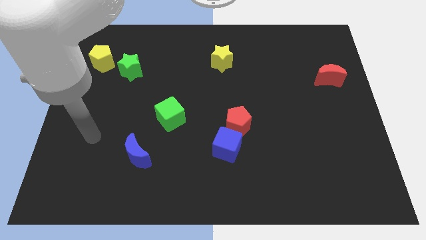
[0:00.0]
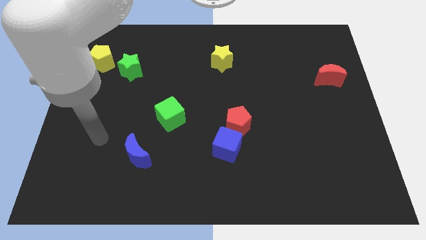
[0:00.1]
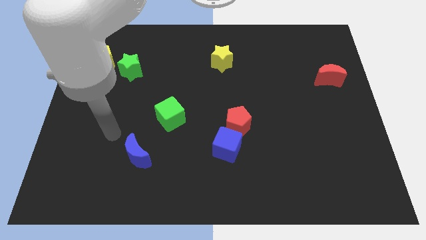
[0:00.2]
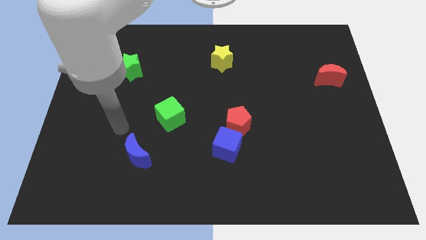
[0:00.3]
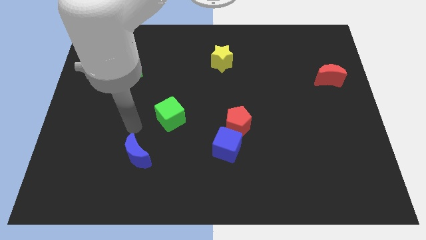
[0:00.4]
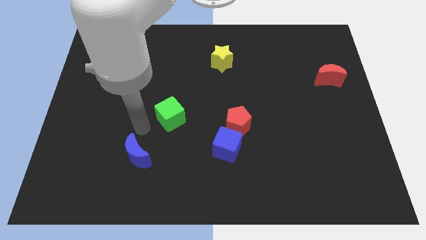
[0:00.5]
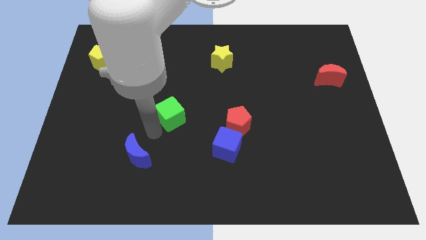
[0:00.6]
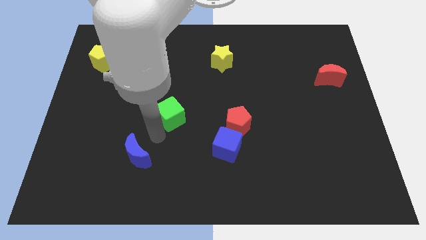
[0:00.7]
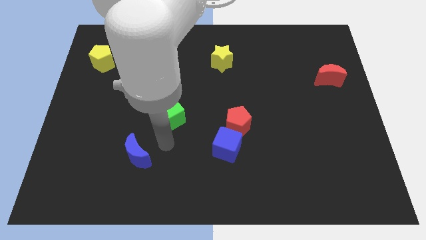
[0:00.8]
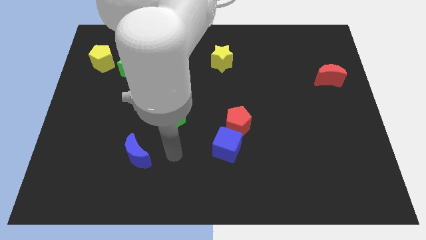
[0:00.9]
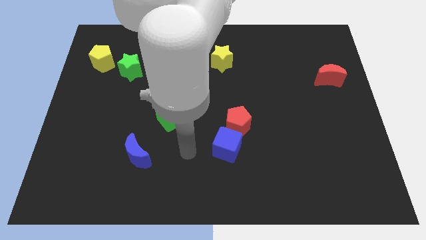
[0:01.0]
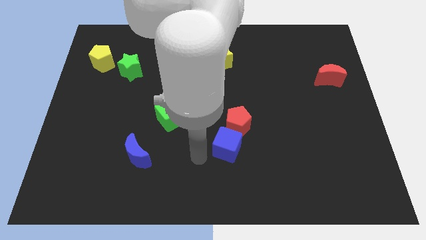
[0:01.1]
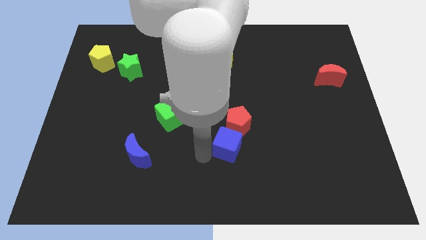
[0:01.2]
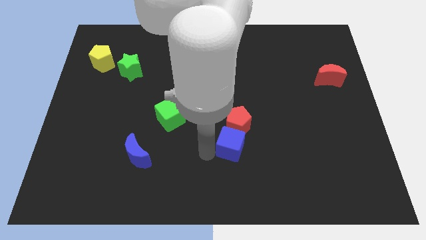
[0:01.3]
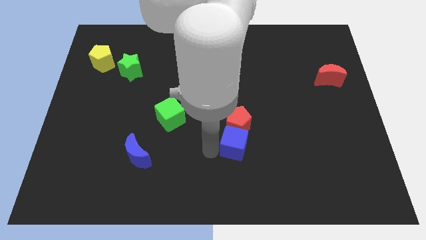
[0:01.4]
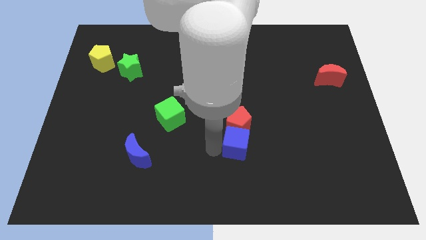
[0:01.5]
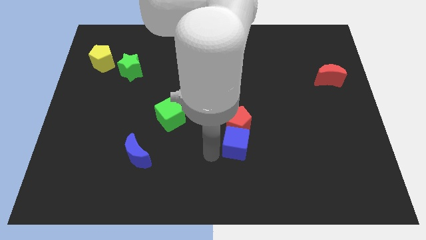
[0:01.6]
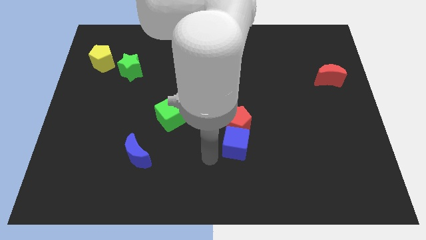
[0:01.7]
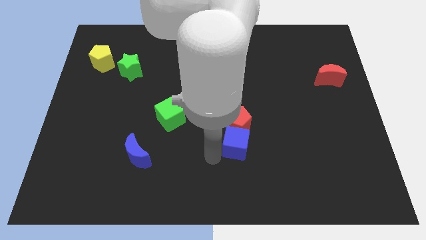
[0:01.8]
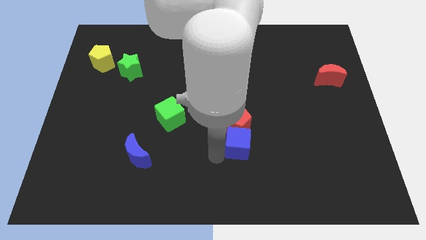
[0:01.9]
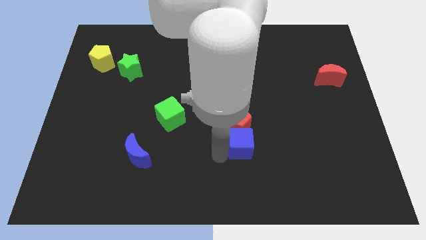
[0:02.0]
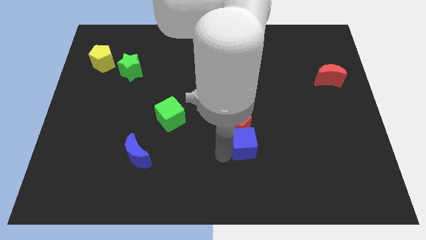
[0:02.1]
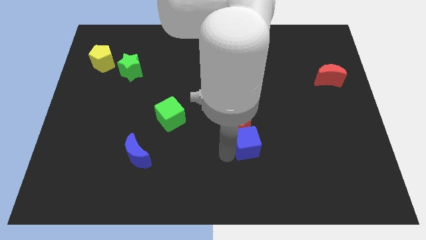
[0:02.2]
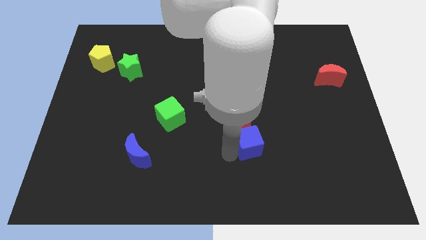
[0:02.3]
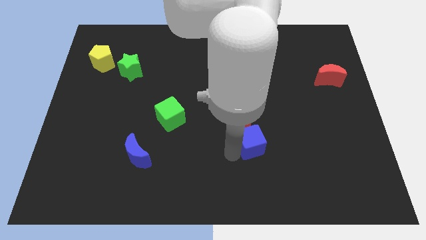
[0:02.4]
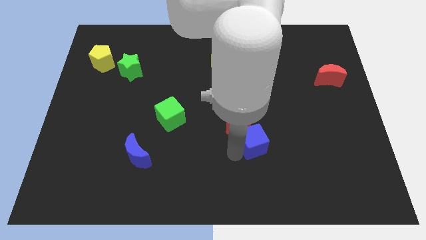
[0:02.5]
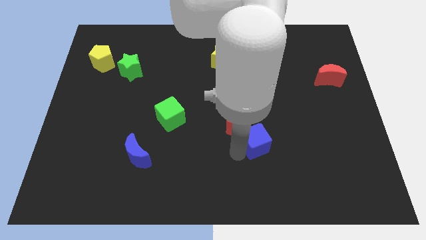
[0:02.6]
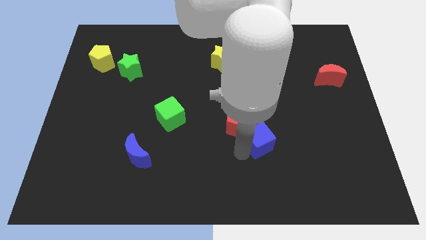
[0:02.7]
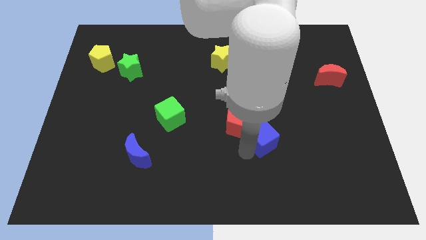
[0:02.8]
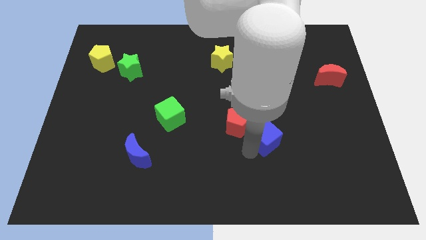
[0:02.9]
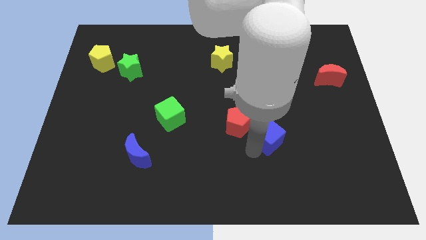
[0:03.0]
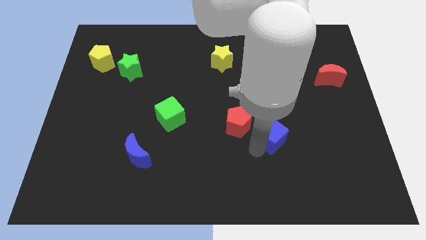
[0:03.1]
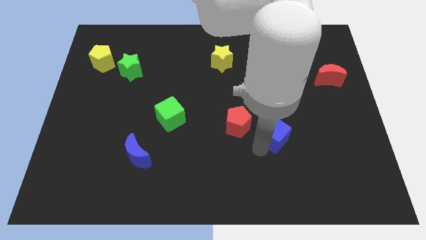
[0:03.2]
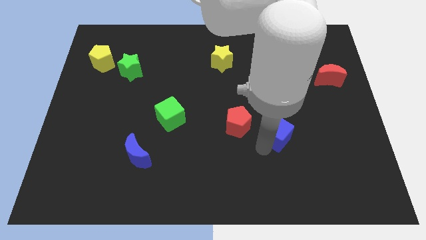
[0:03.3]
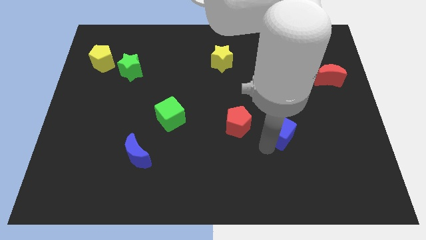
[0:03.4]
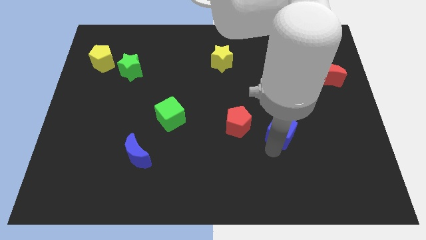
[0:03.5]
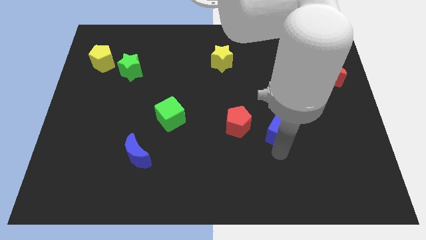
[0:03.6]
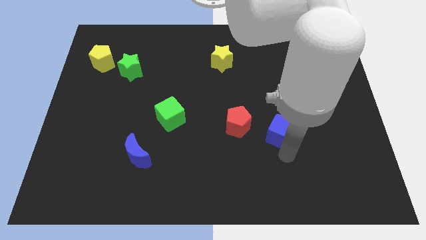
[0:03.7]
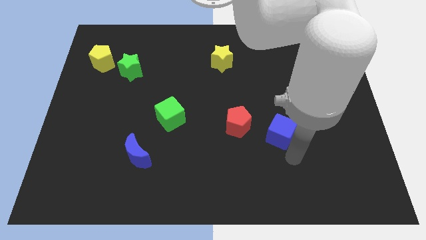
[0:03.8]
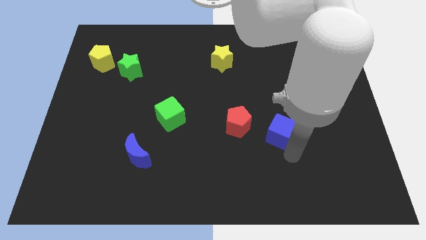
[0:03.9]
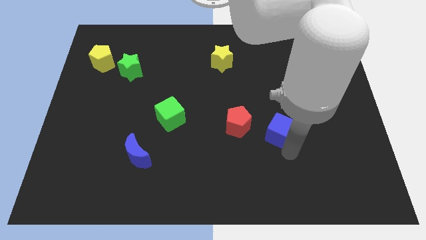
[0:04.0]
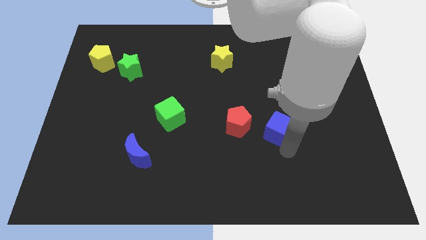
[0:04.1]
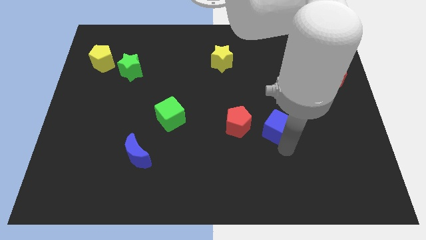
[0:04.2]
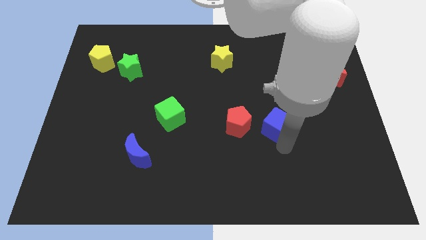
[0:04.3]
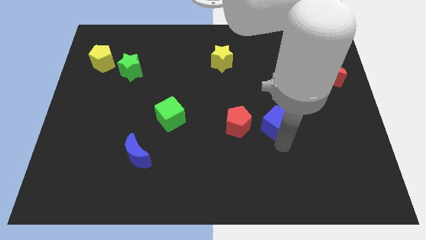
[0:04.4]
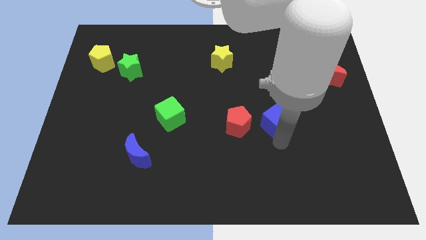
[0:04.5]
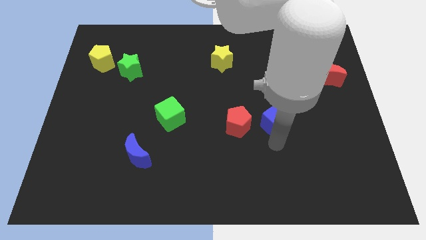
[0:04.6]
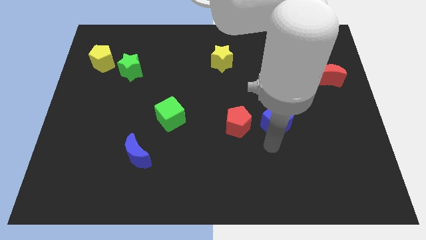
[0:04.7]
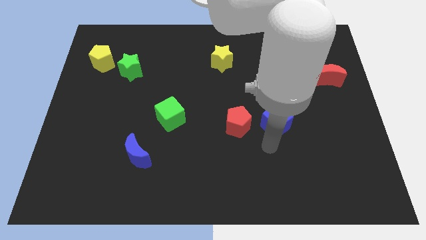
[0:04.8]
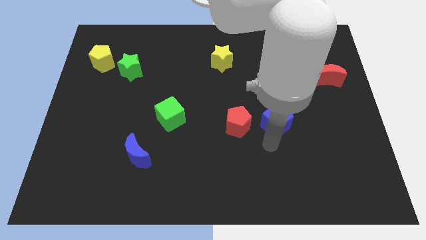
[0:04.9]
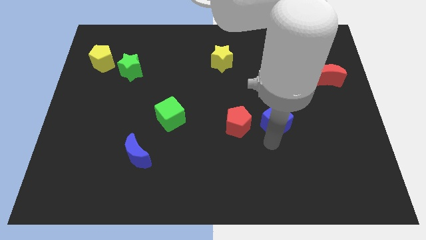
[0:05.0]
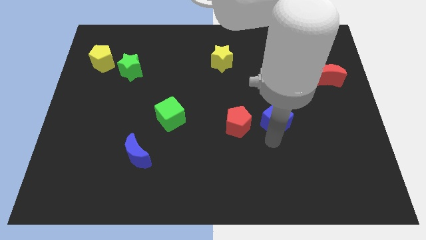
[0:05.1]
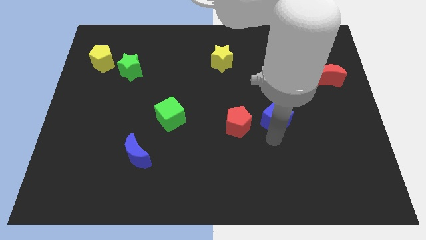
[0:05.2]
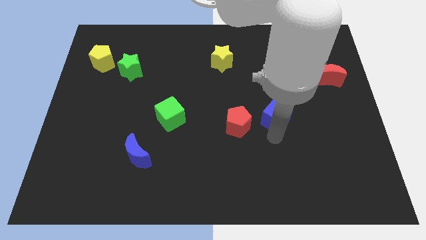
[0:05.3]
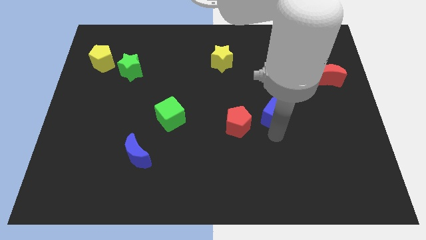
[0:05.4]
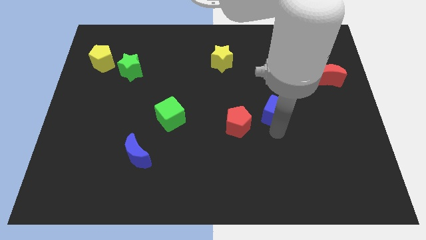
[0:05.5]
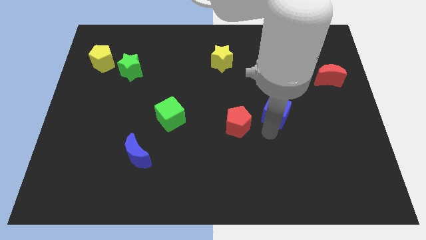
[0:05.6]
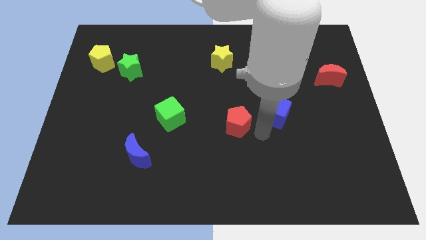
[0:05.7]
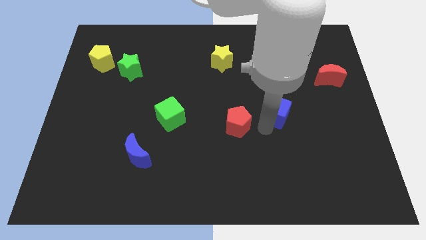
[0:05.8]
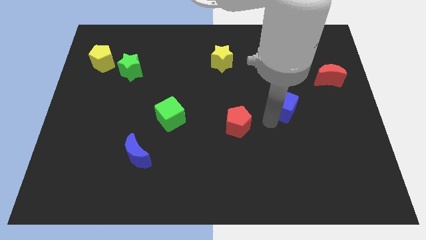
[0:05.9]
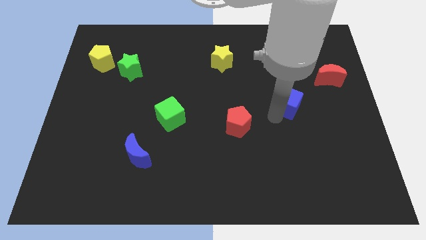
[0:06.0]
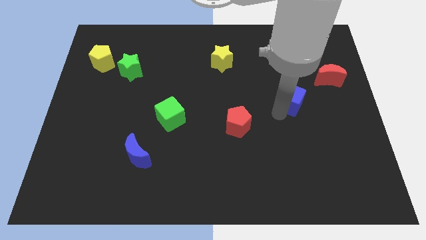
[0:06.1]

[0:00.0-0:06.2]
slide the blue cube upwards and then to the right

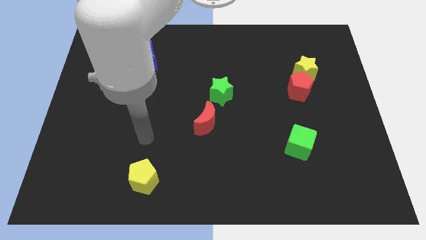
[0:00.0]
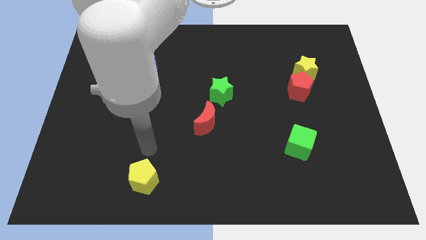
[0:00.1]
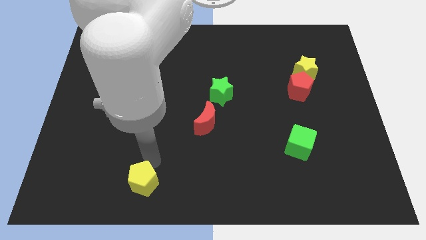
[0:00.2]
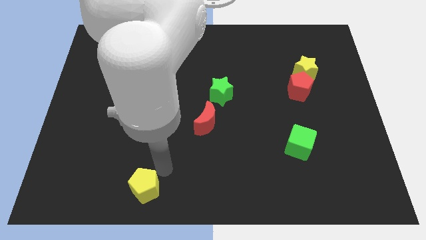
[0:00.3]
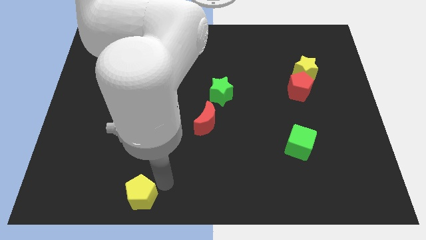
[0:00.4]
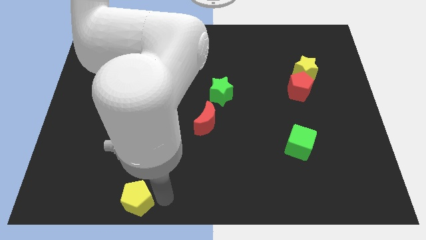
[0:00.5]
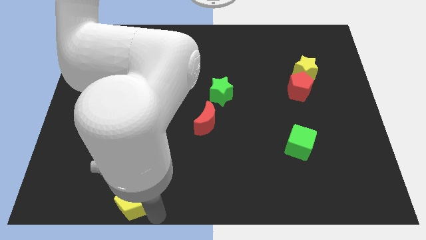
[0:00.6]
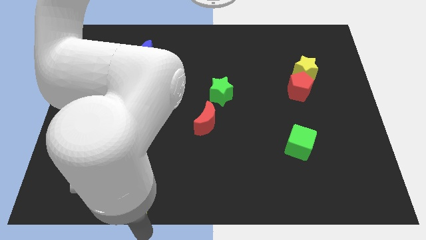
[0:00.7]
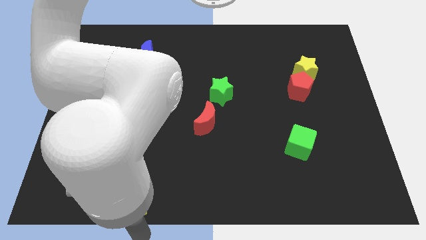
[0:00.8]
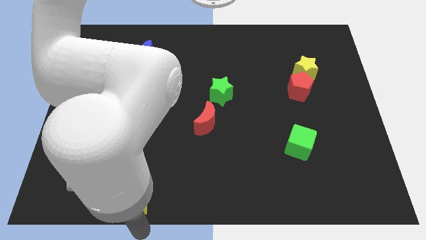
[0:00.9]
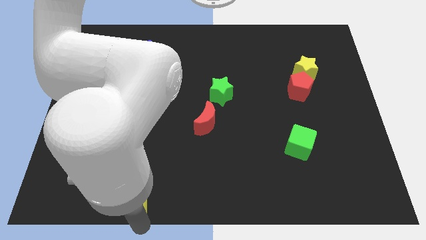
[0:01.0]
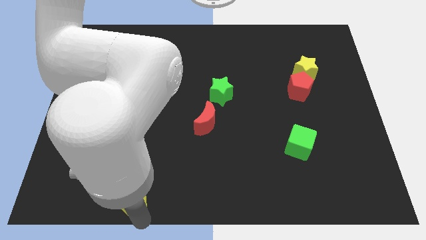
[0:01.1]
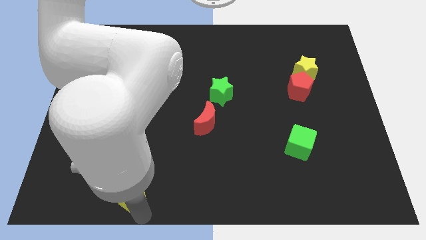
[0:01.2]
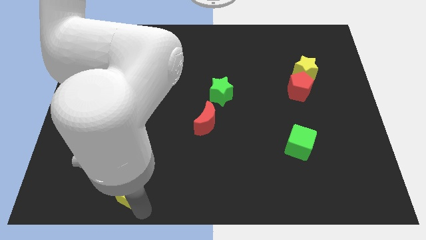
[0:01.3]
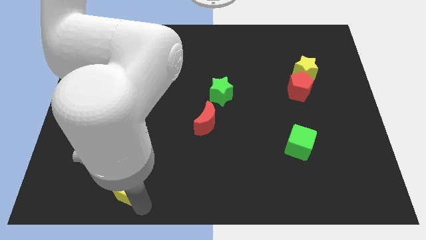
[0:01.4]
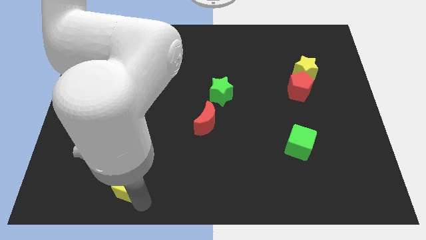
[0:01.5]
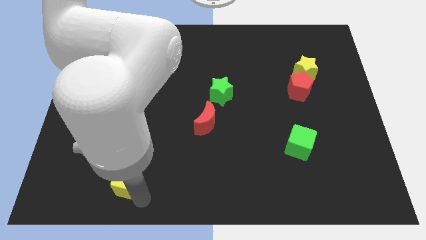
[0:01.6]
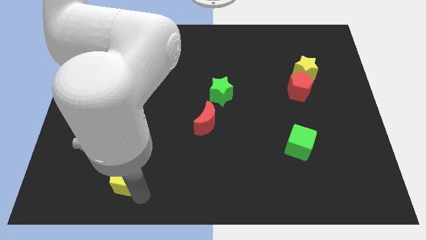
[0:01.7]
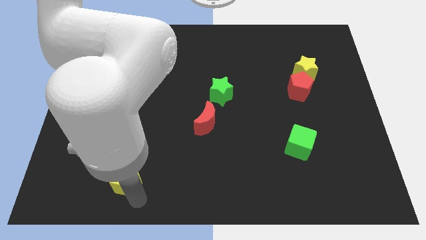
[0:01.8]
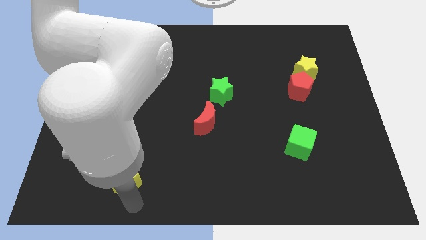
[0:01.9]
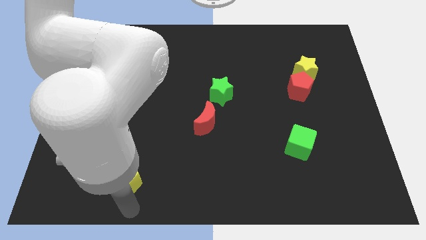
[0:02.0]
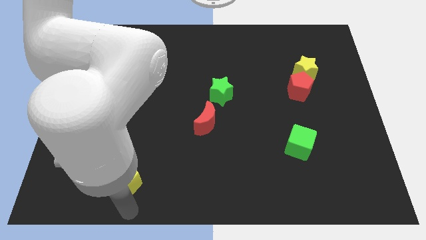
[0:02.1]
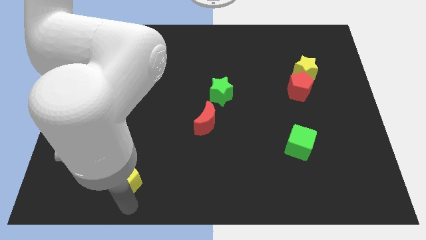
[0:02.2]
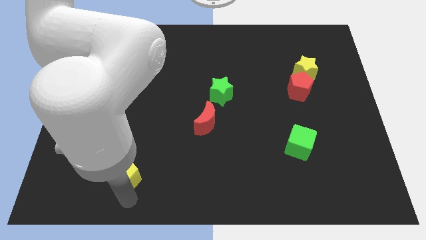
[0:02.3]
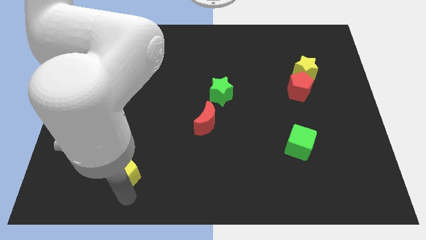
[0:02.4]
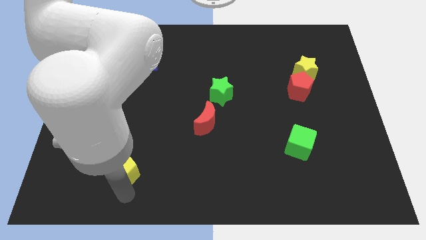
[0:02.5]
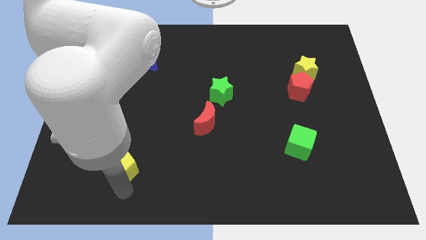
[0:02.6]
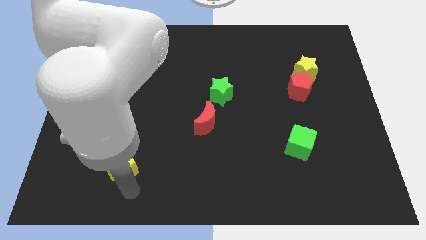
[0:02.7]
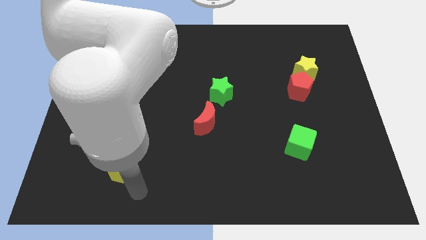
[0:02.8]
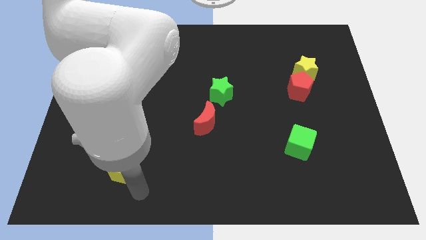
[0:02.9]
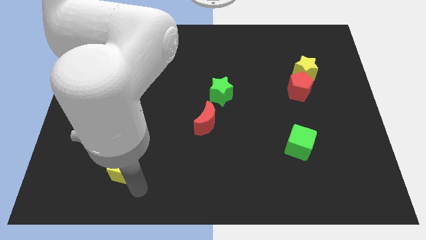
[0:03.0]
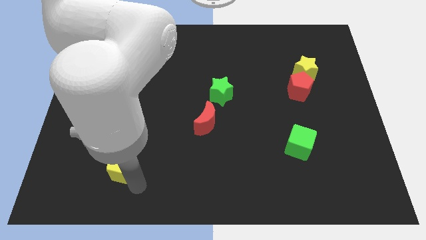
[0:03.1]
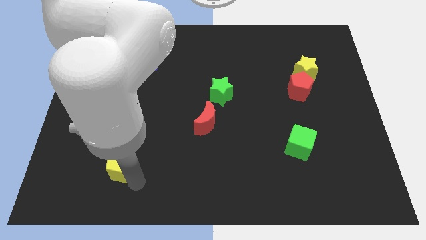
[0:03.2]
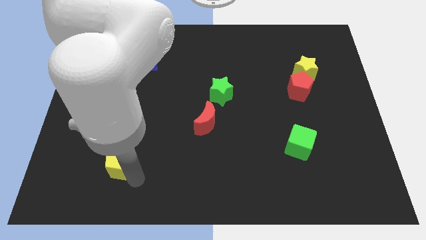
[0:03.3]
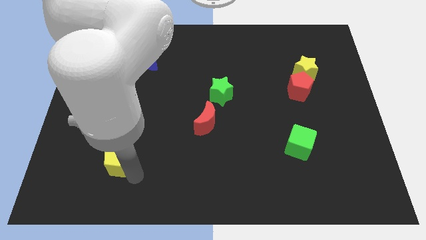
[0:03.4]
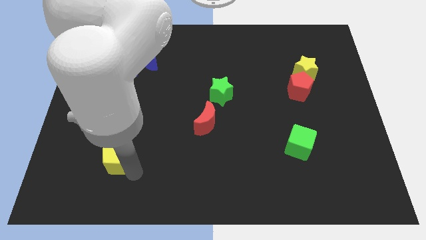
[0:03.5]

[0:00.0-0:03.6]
push the yellow pentagon upwards and then to the left somewhat
